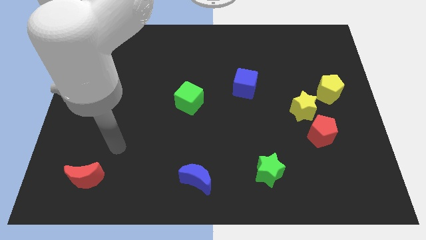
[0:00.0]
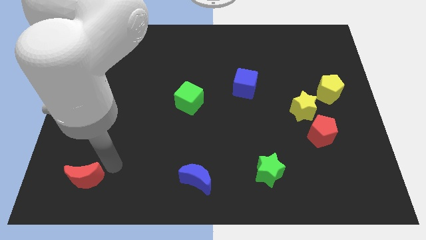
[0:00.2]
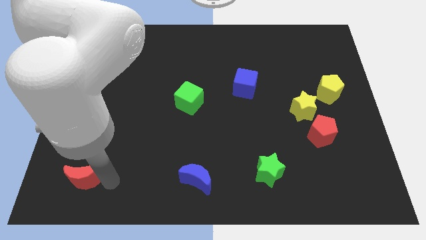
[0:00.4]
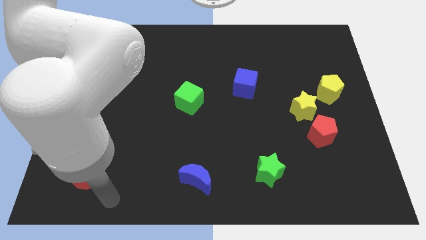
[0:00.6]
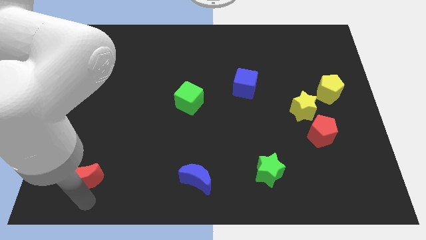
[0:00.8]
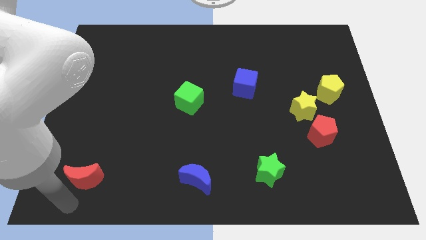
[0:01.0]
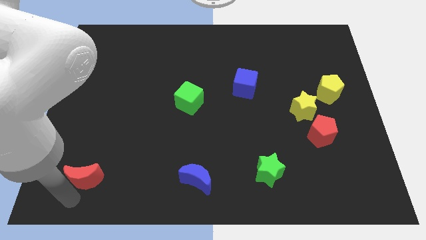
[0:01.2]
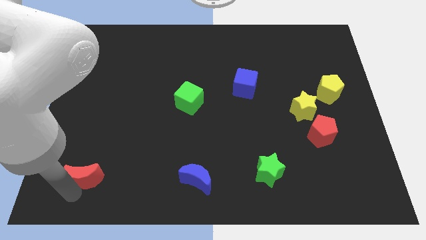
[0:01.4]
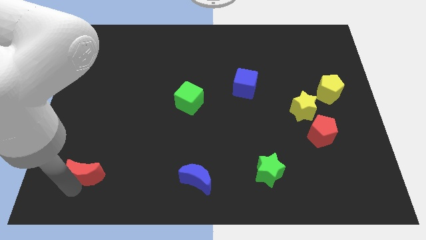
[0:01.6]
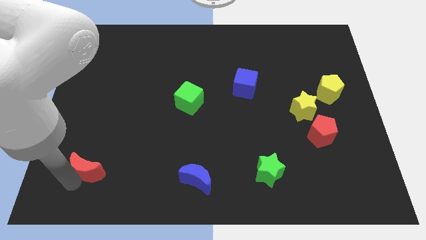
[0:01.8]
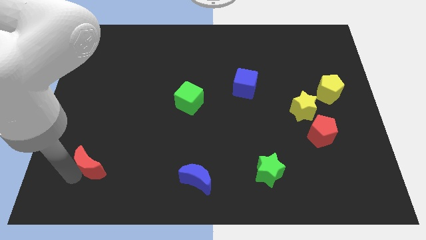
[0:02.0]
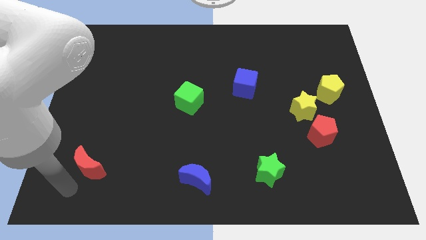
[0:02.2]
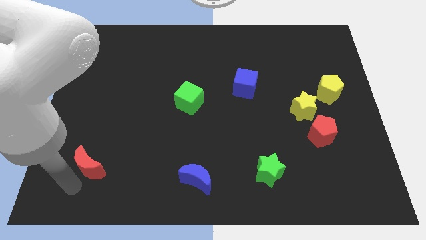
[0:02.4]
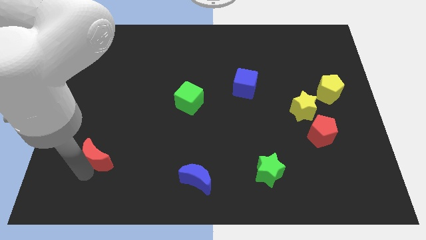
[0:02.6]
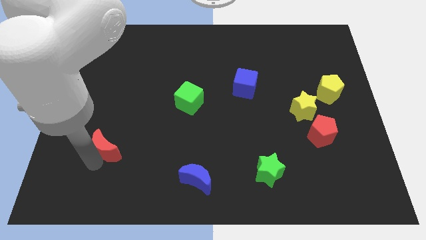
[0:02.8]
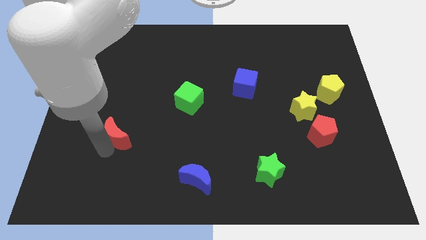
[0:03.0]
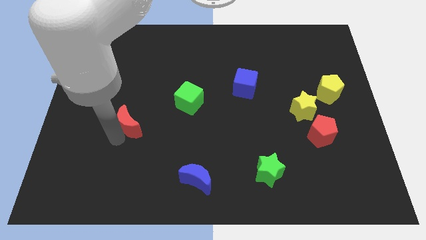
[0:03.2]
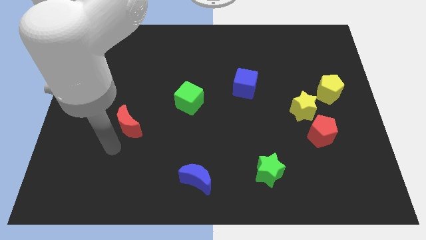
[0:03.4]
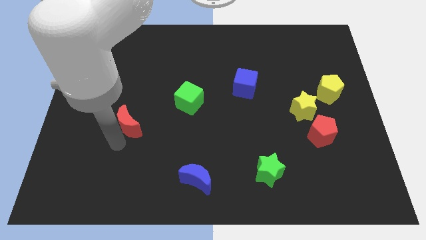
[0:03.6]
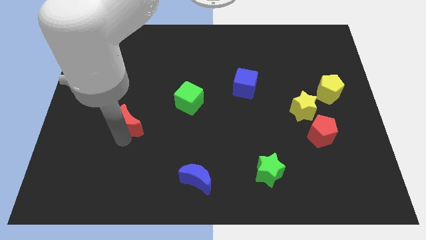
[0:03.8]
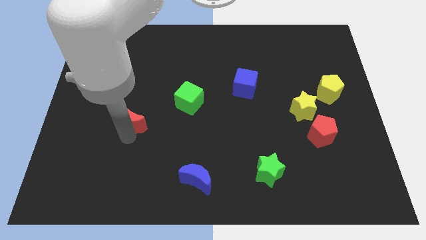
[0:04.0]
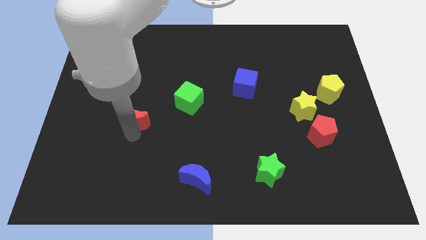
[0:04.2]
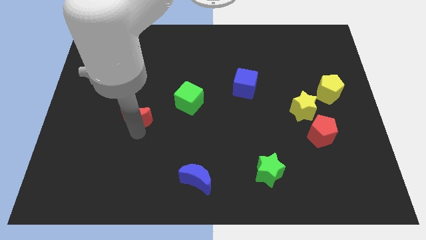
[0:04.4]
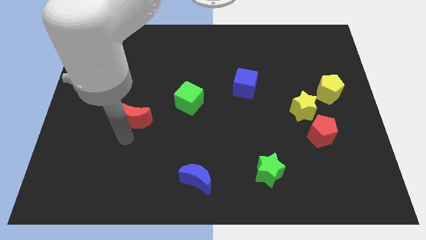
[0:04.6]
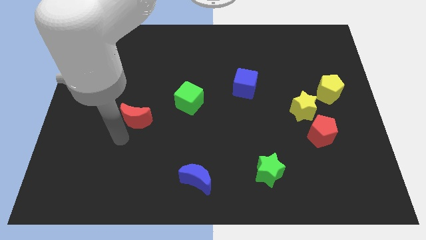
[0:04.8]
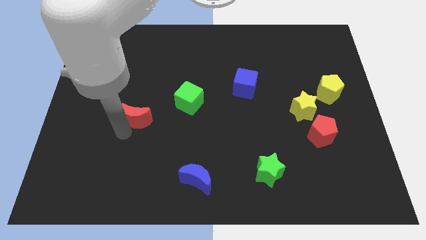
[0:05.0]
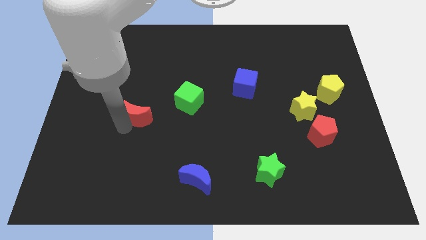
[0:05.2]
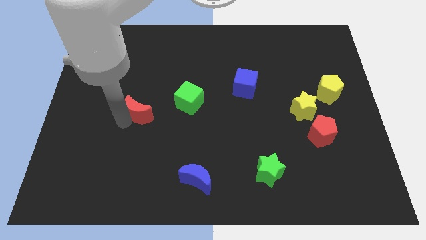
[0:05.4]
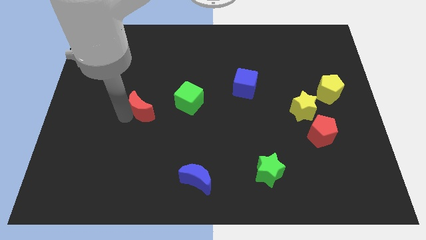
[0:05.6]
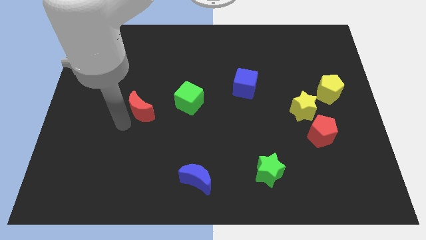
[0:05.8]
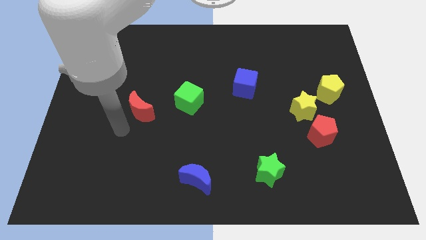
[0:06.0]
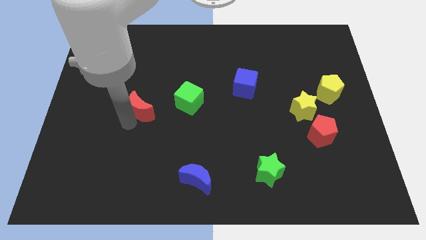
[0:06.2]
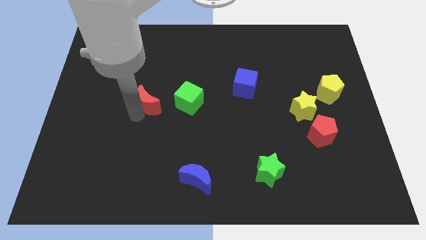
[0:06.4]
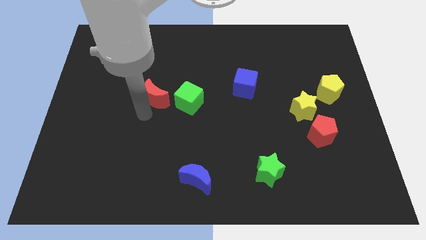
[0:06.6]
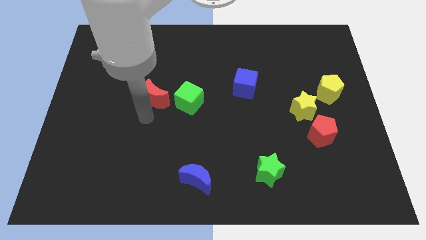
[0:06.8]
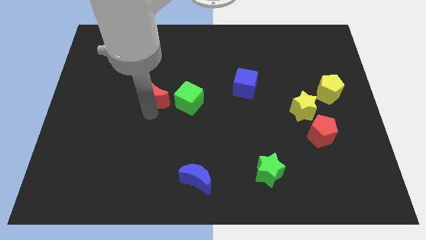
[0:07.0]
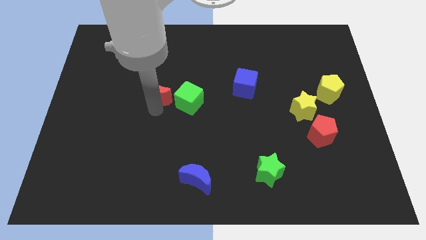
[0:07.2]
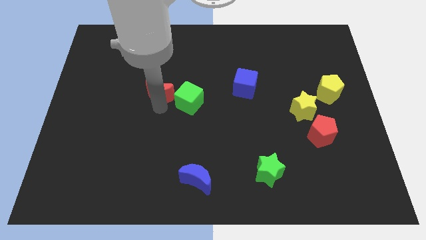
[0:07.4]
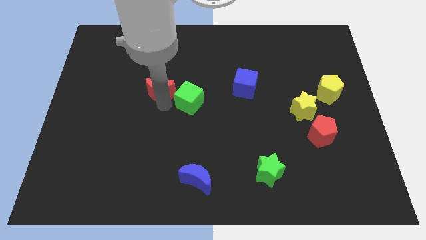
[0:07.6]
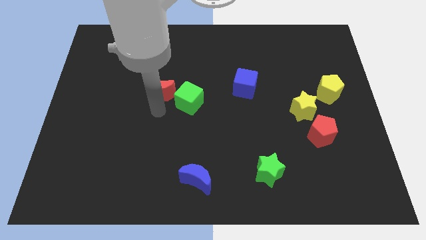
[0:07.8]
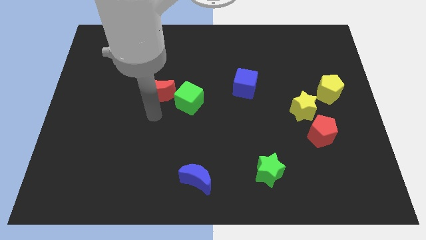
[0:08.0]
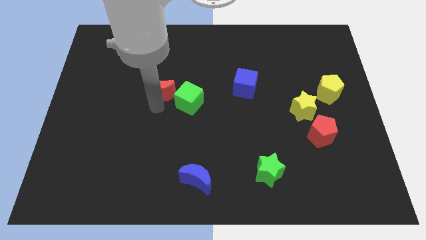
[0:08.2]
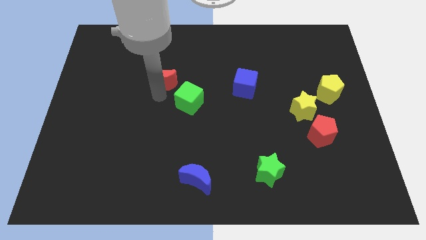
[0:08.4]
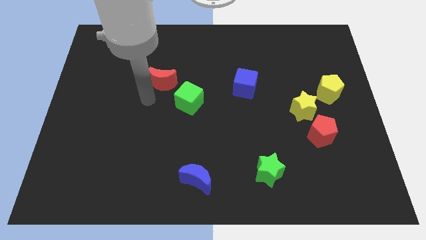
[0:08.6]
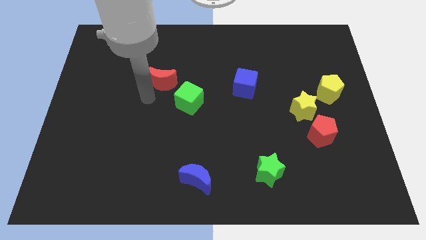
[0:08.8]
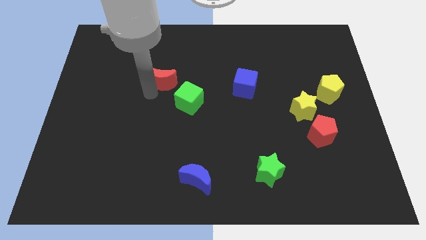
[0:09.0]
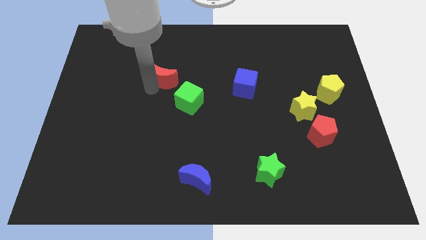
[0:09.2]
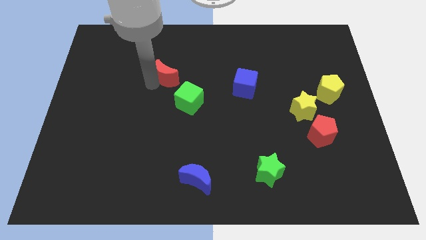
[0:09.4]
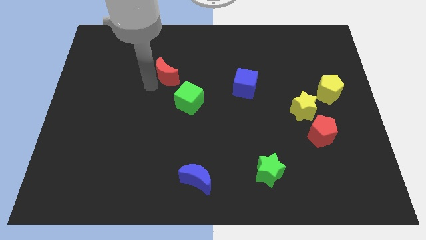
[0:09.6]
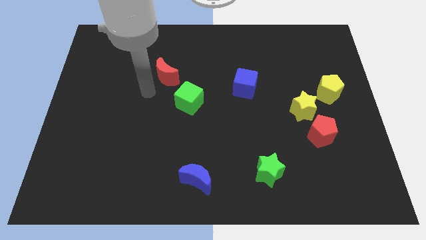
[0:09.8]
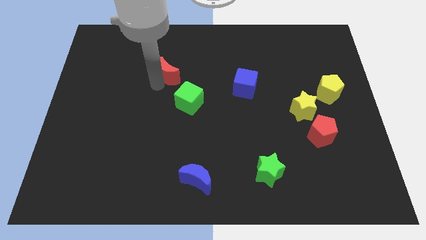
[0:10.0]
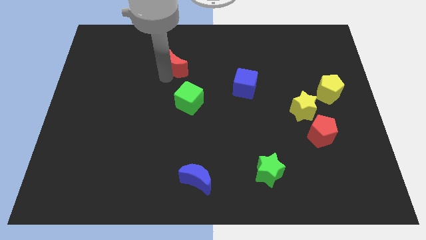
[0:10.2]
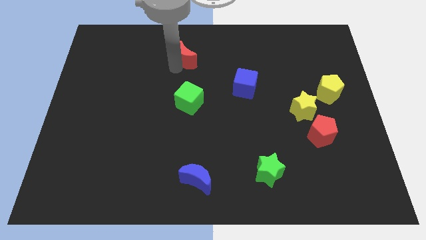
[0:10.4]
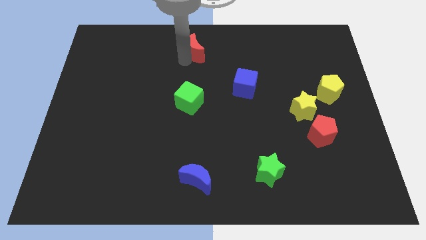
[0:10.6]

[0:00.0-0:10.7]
slide the red moon to the top side

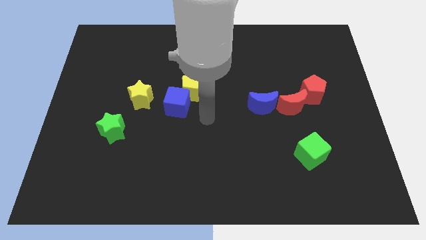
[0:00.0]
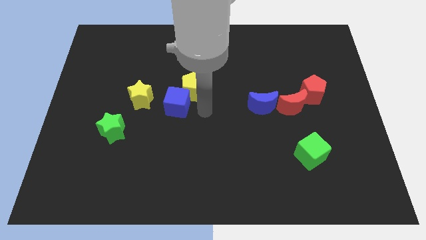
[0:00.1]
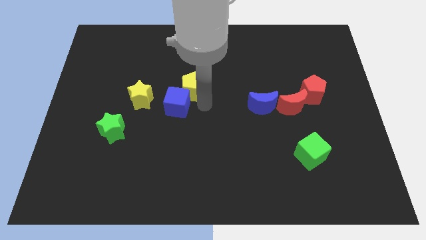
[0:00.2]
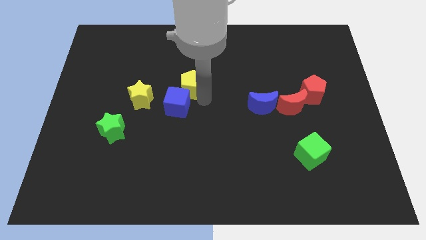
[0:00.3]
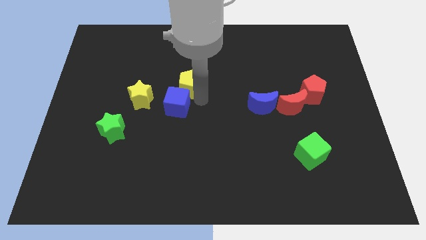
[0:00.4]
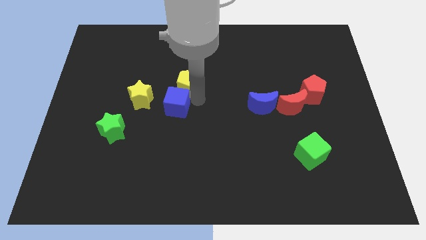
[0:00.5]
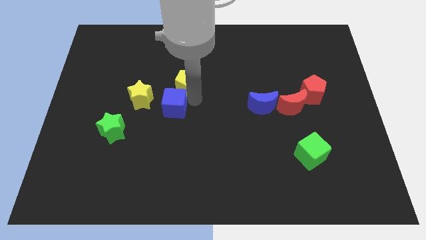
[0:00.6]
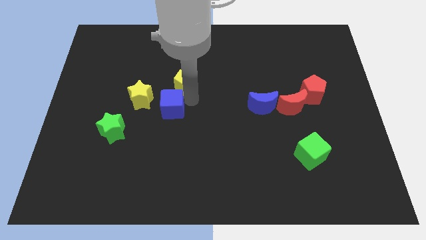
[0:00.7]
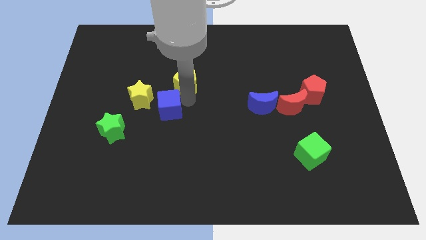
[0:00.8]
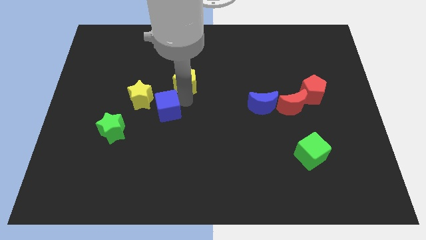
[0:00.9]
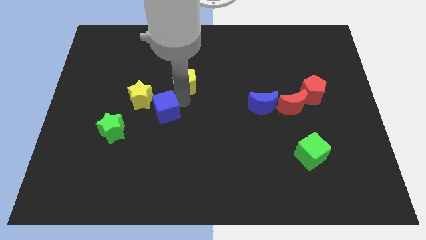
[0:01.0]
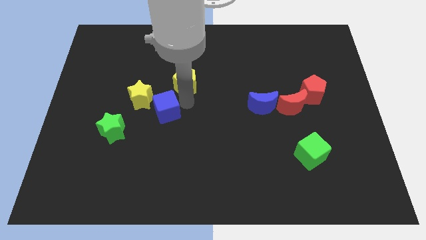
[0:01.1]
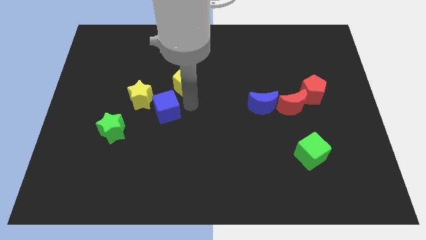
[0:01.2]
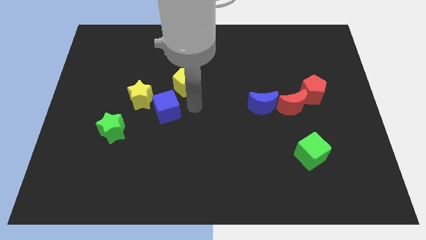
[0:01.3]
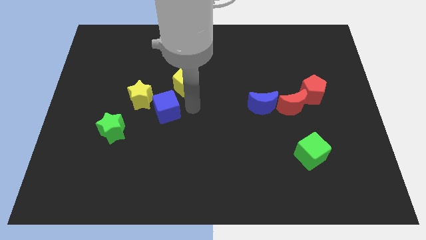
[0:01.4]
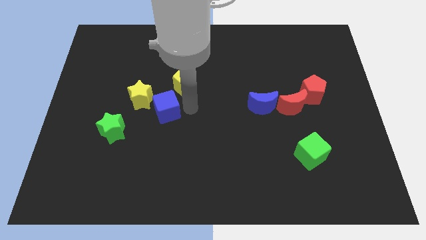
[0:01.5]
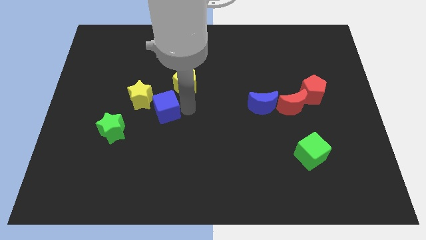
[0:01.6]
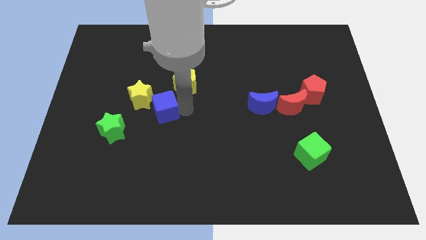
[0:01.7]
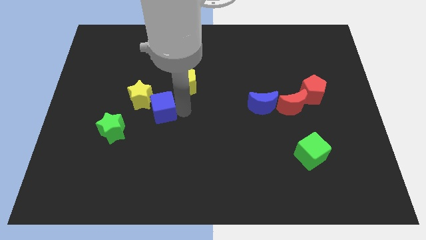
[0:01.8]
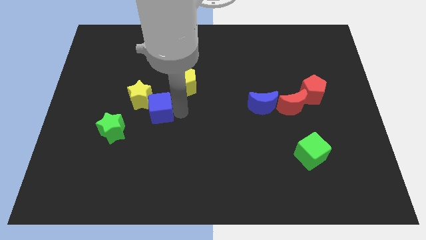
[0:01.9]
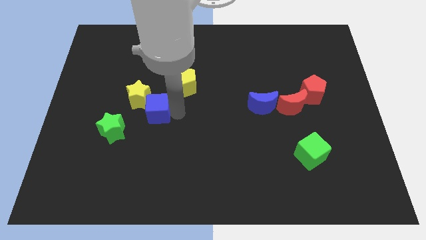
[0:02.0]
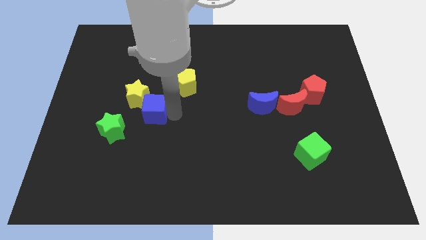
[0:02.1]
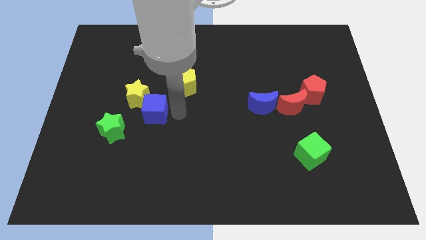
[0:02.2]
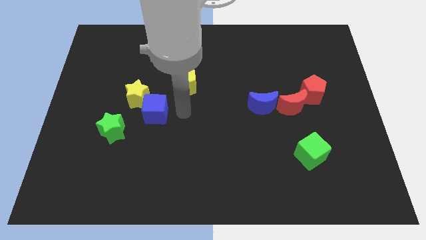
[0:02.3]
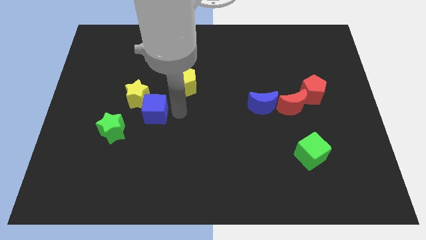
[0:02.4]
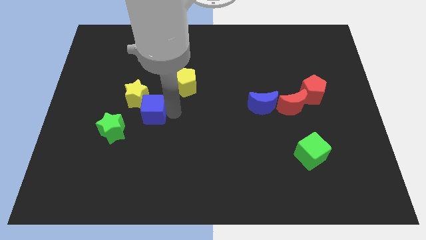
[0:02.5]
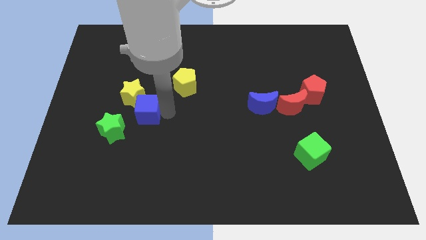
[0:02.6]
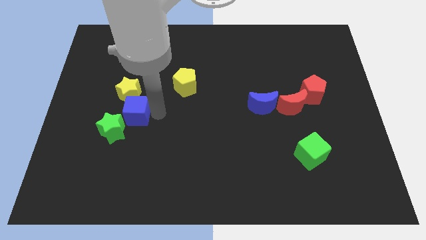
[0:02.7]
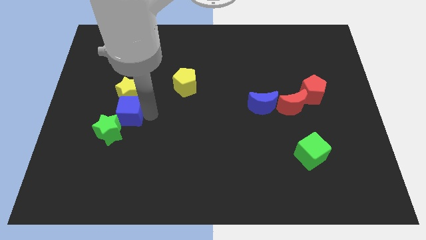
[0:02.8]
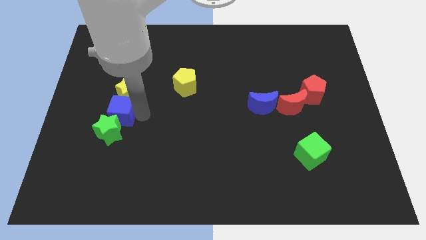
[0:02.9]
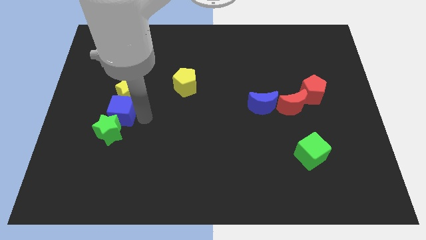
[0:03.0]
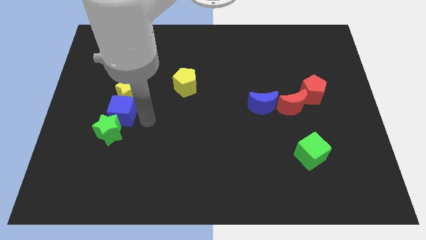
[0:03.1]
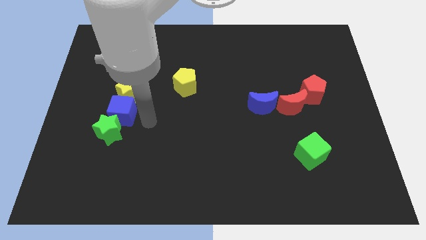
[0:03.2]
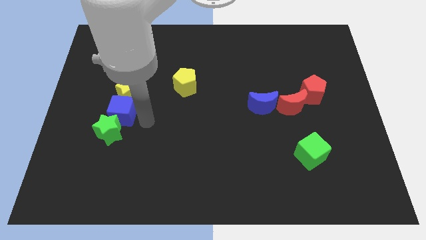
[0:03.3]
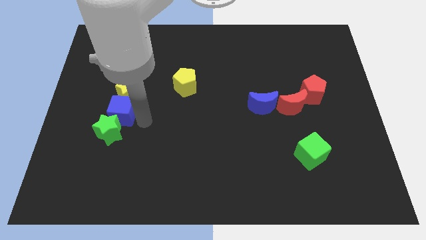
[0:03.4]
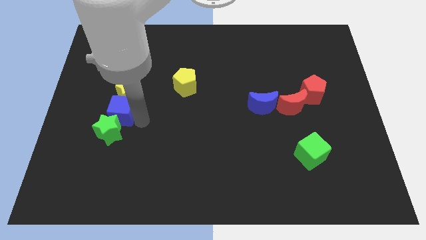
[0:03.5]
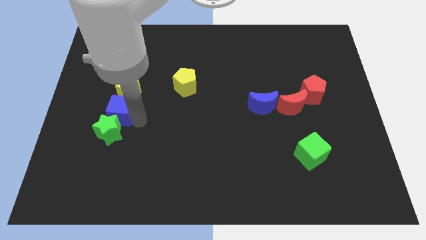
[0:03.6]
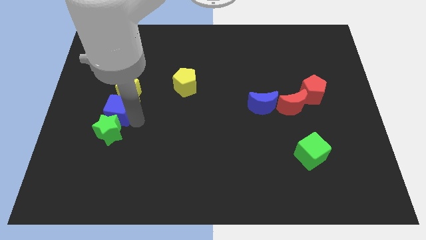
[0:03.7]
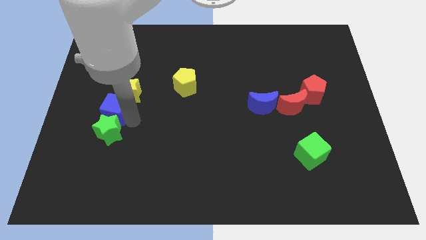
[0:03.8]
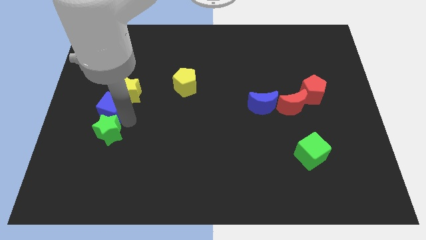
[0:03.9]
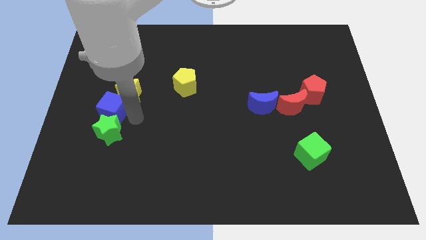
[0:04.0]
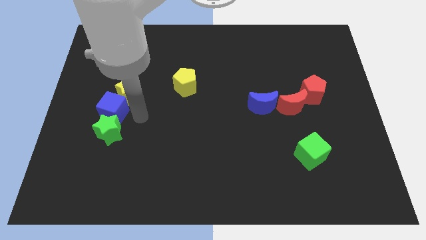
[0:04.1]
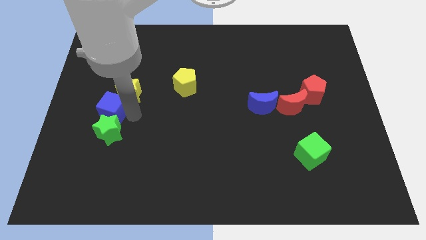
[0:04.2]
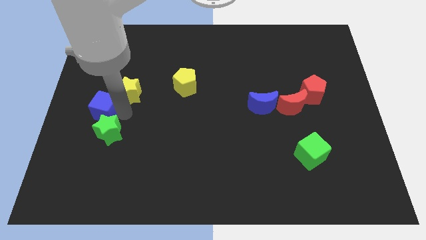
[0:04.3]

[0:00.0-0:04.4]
move the blue cube to the center left
